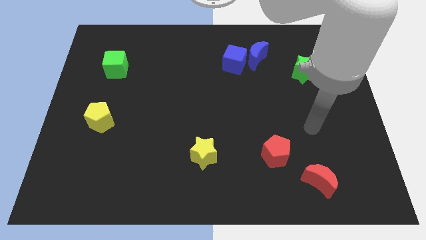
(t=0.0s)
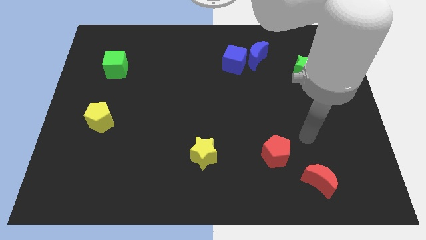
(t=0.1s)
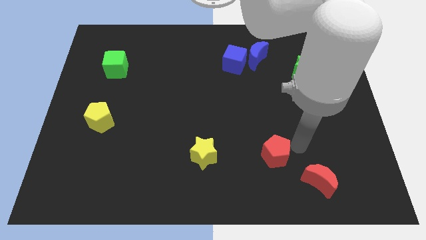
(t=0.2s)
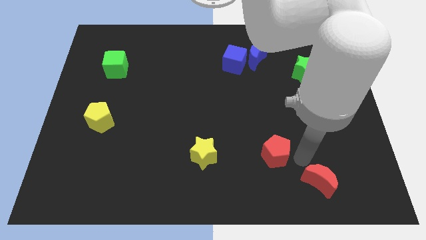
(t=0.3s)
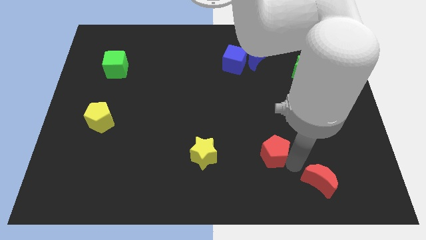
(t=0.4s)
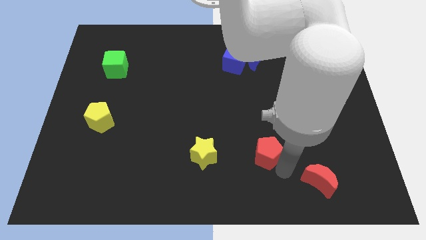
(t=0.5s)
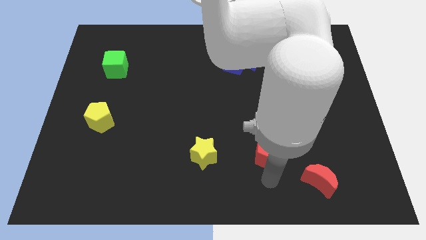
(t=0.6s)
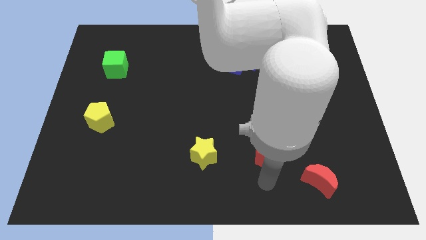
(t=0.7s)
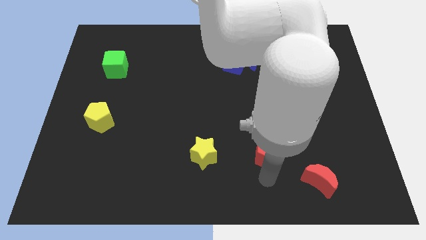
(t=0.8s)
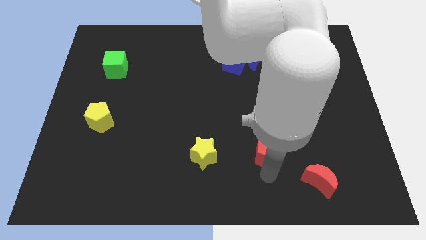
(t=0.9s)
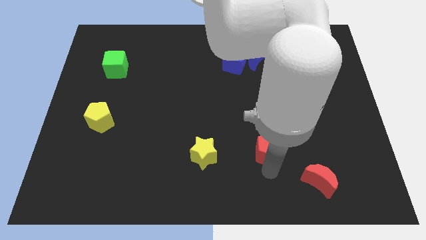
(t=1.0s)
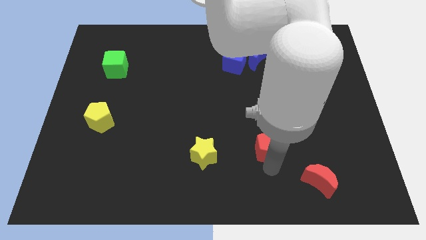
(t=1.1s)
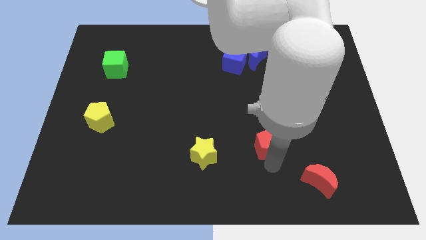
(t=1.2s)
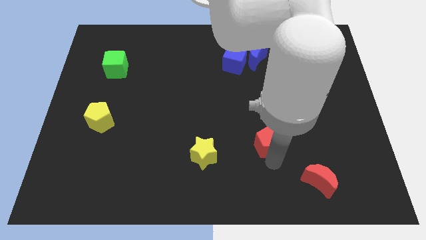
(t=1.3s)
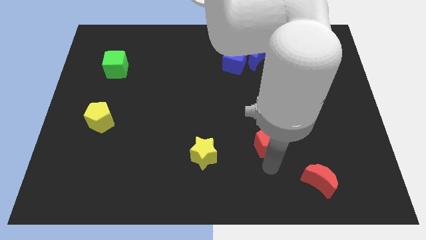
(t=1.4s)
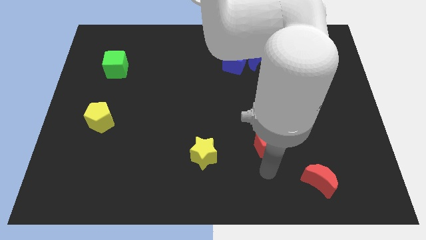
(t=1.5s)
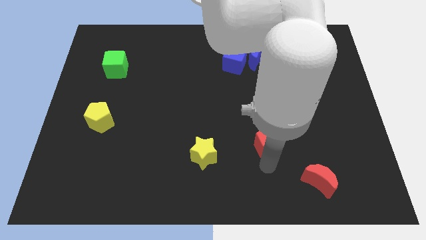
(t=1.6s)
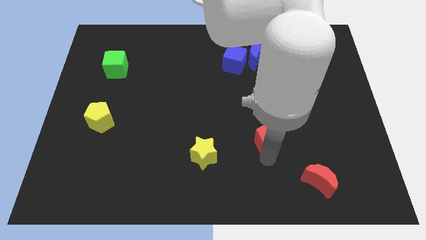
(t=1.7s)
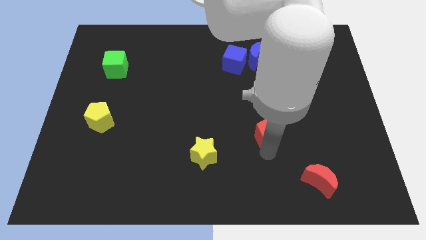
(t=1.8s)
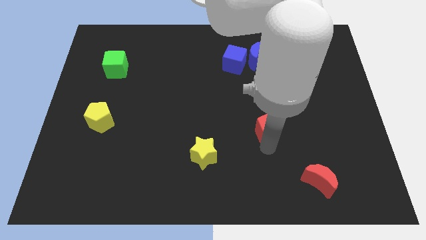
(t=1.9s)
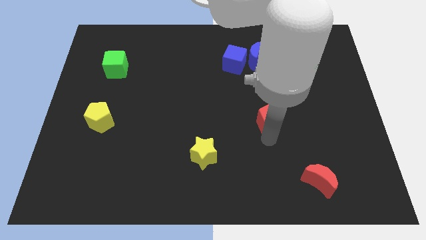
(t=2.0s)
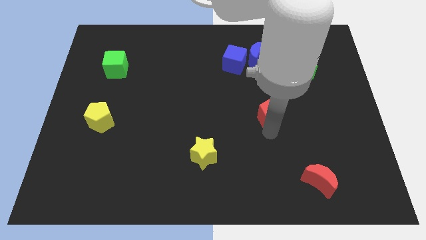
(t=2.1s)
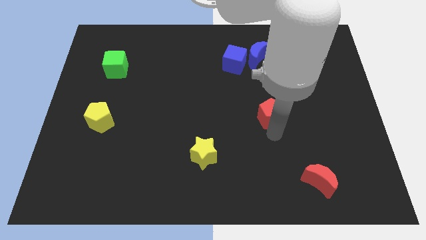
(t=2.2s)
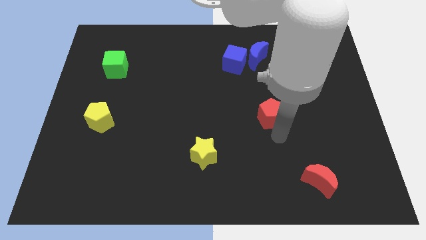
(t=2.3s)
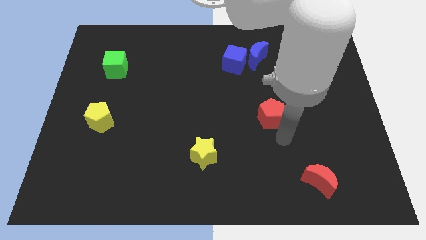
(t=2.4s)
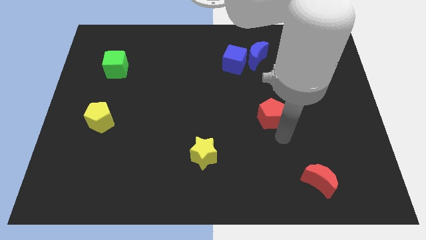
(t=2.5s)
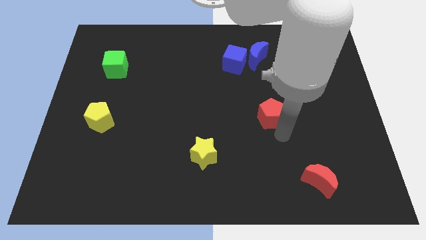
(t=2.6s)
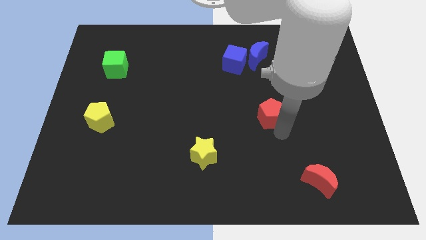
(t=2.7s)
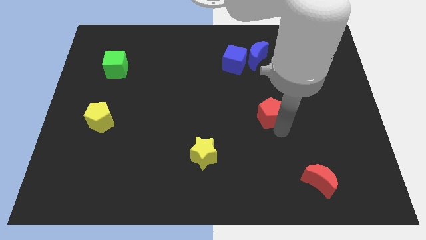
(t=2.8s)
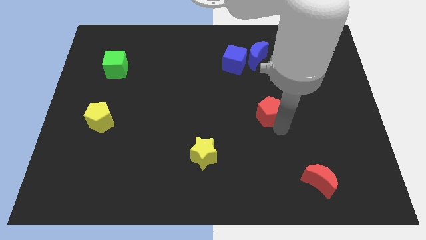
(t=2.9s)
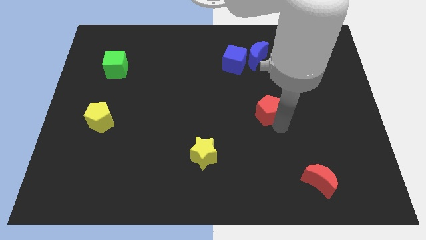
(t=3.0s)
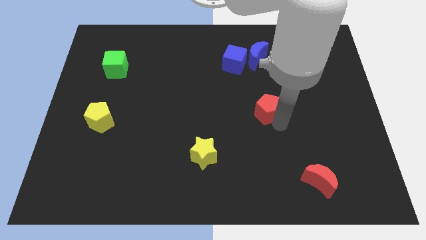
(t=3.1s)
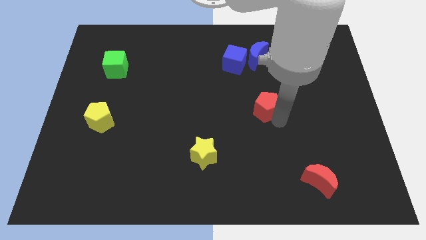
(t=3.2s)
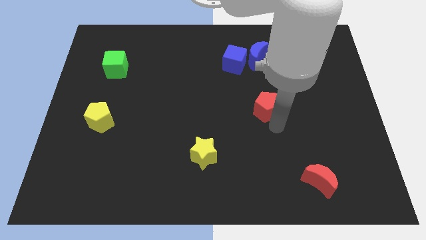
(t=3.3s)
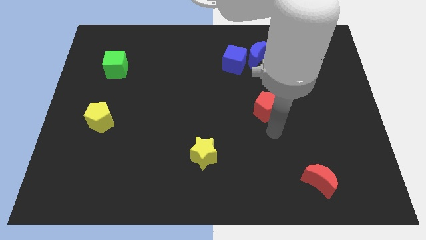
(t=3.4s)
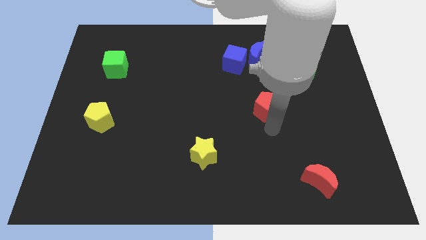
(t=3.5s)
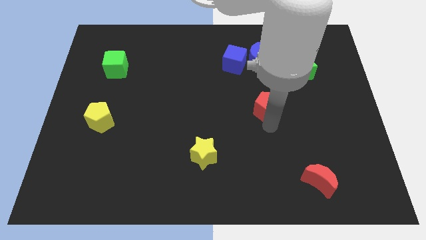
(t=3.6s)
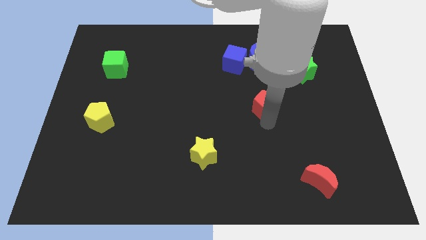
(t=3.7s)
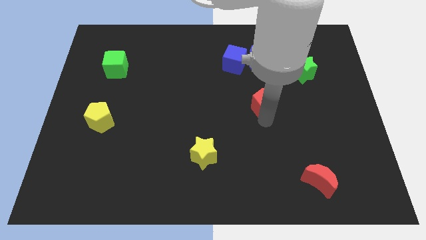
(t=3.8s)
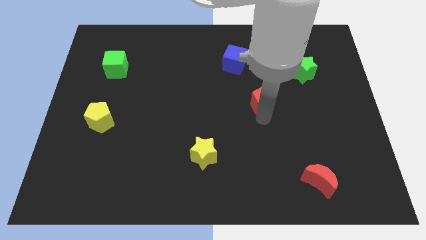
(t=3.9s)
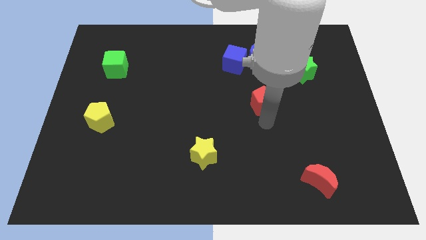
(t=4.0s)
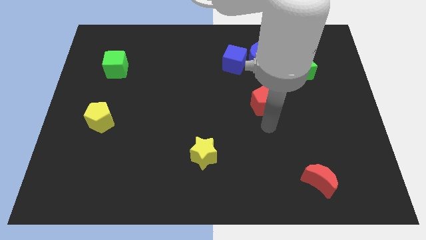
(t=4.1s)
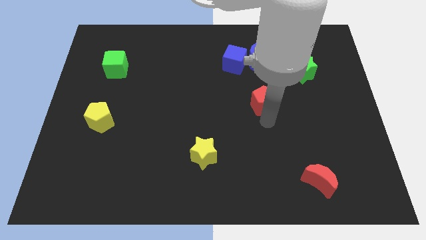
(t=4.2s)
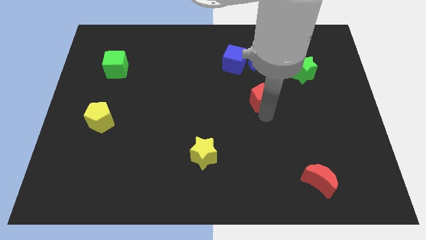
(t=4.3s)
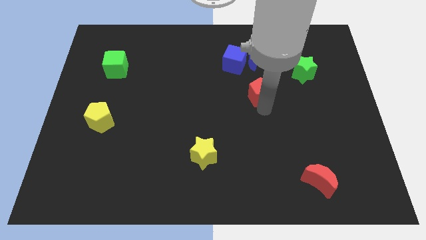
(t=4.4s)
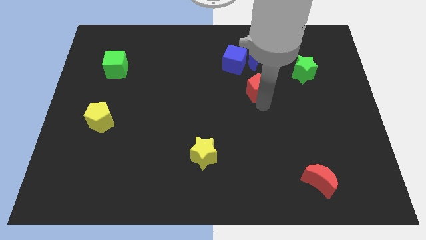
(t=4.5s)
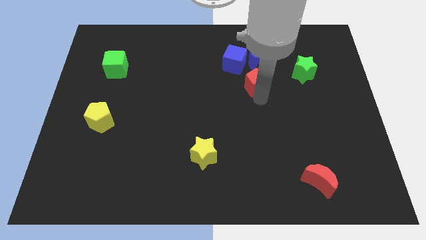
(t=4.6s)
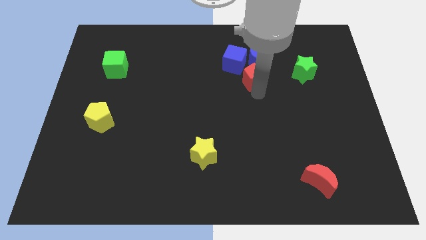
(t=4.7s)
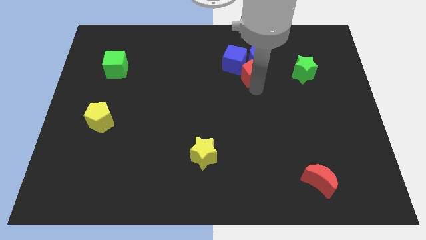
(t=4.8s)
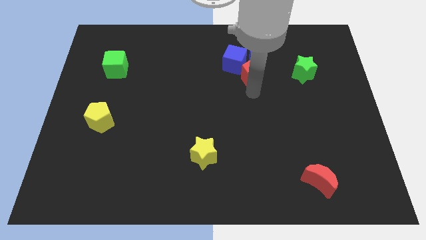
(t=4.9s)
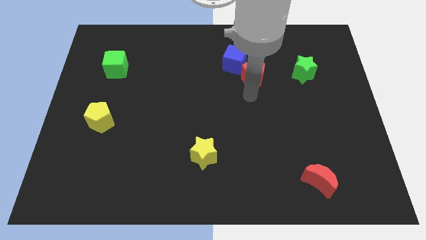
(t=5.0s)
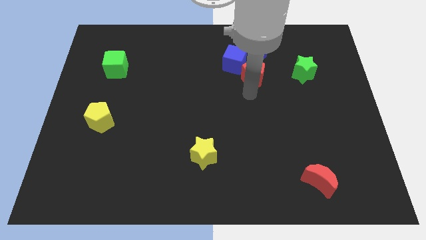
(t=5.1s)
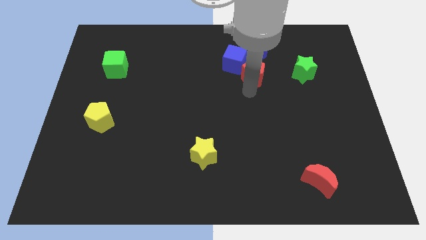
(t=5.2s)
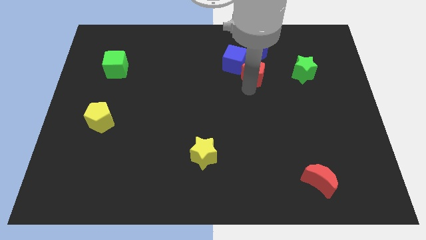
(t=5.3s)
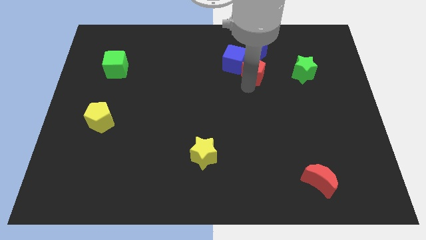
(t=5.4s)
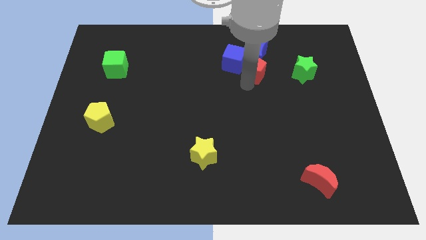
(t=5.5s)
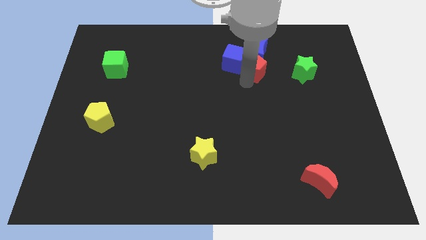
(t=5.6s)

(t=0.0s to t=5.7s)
slide the red pentagon to the blue moon

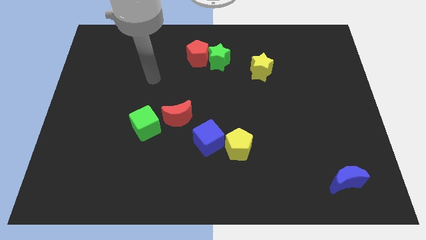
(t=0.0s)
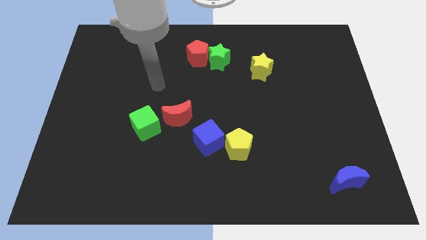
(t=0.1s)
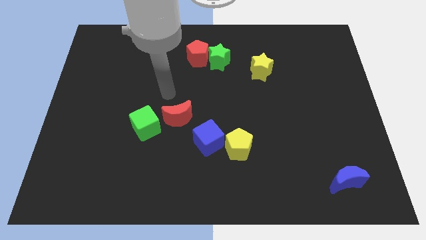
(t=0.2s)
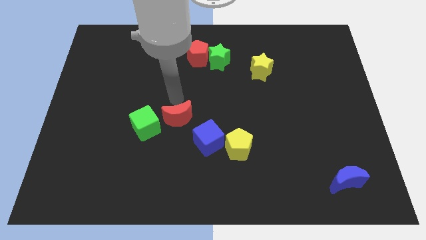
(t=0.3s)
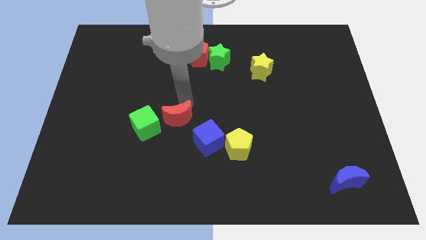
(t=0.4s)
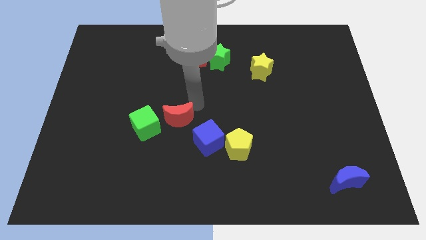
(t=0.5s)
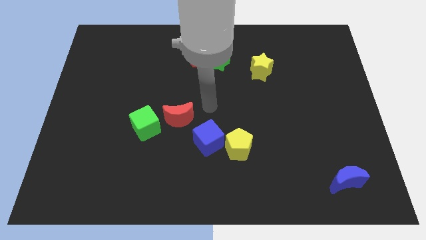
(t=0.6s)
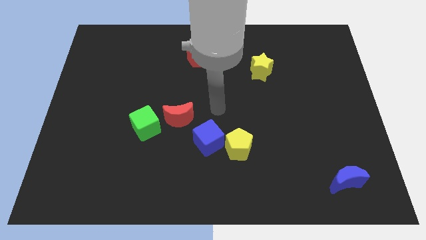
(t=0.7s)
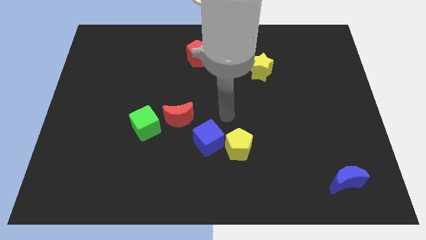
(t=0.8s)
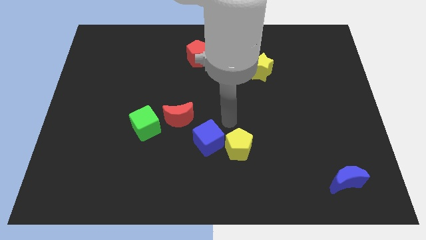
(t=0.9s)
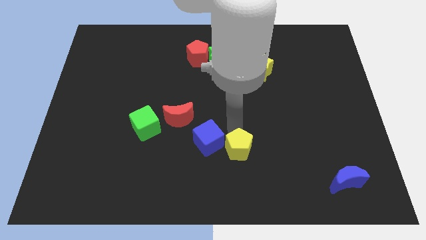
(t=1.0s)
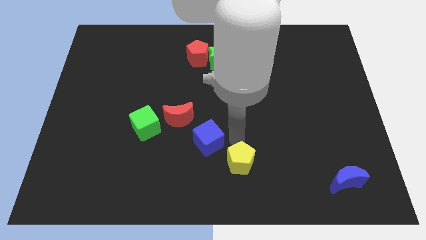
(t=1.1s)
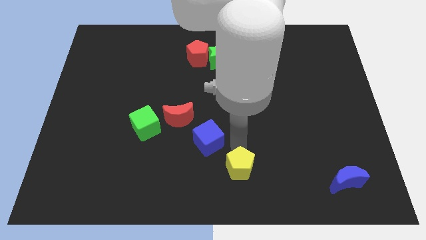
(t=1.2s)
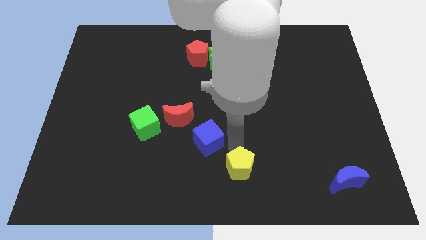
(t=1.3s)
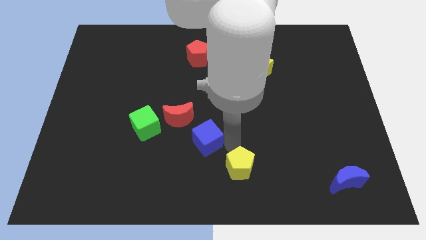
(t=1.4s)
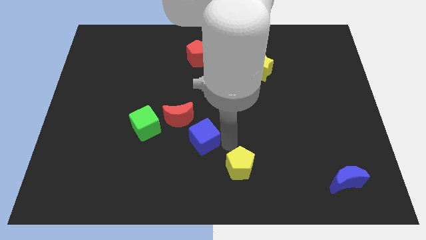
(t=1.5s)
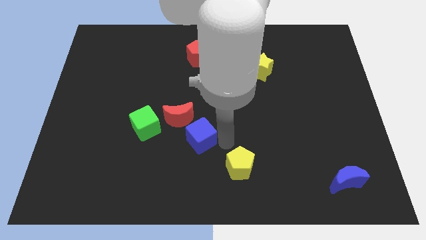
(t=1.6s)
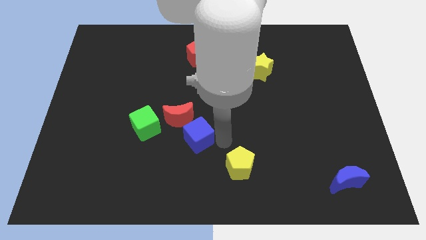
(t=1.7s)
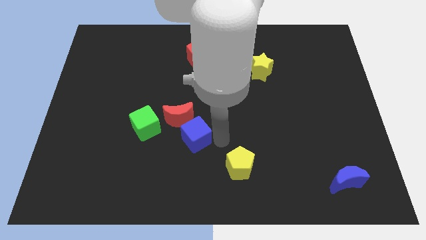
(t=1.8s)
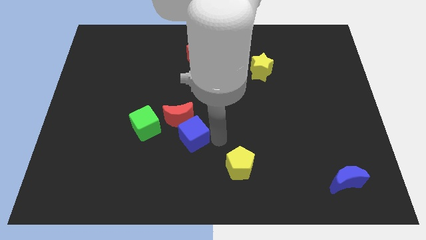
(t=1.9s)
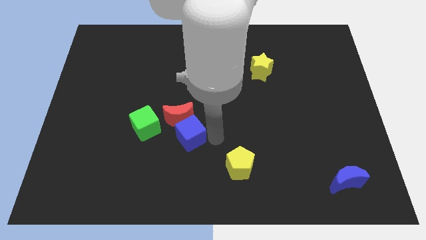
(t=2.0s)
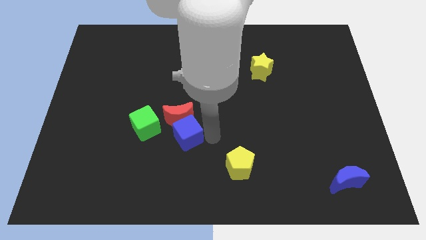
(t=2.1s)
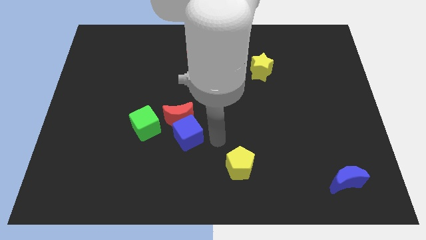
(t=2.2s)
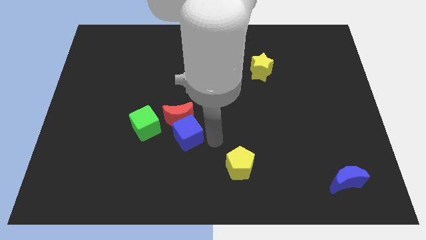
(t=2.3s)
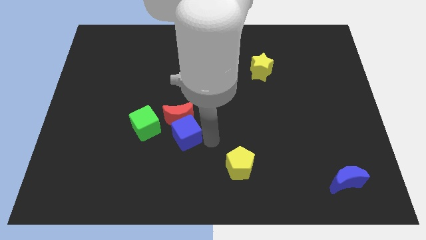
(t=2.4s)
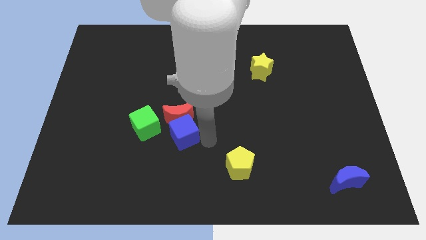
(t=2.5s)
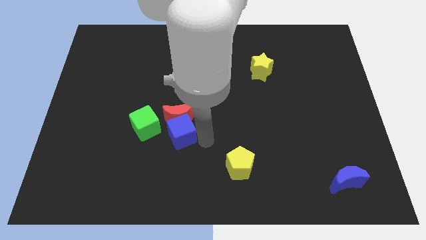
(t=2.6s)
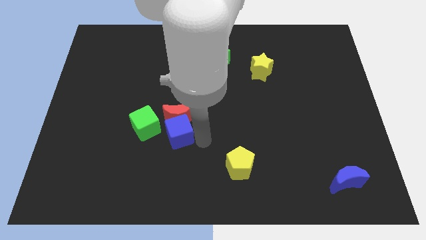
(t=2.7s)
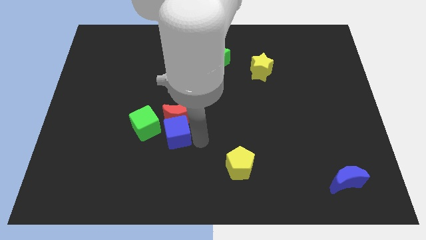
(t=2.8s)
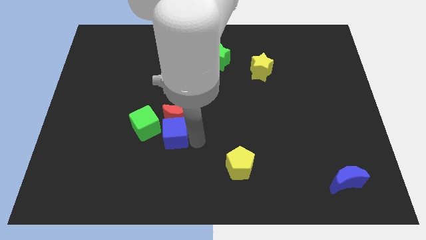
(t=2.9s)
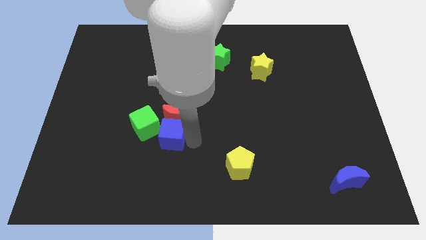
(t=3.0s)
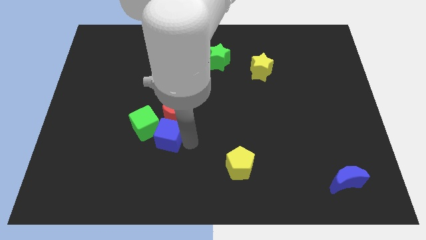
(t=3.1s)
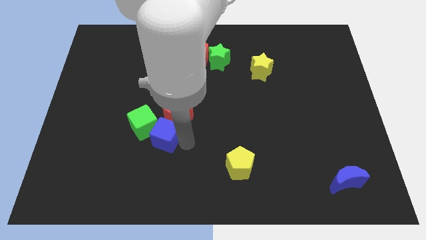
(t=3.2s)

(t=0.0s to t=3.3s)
slide the blue cube towards the green cube
